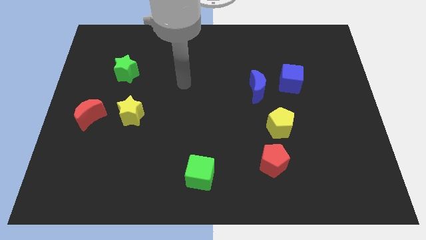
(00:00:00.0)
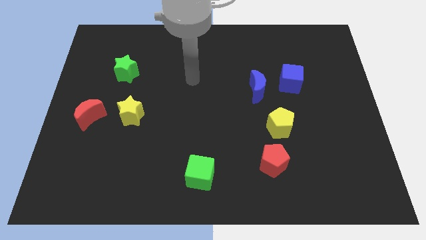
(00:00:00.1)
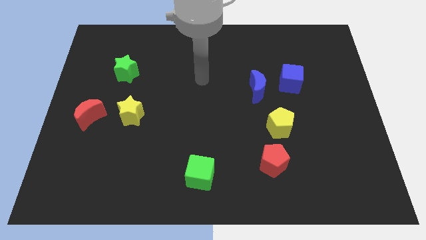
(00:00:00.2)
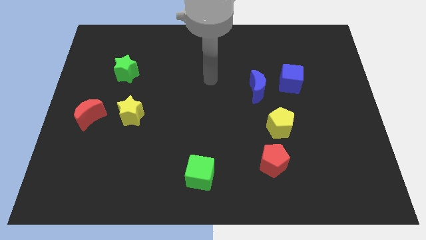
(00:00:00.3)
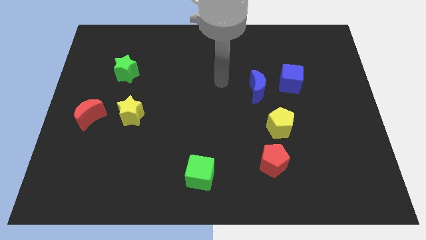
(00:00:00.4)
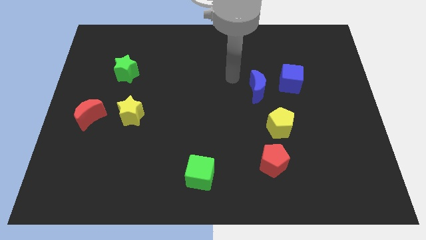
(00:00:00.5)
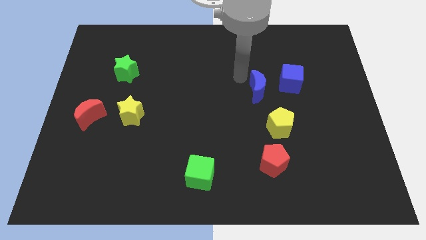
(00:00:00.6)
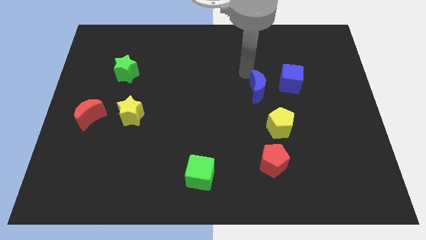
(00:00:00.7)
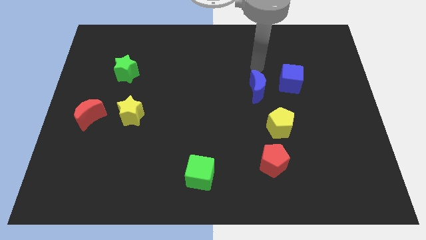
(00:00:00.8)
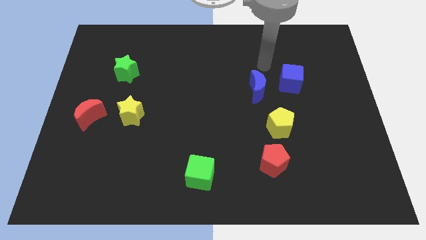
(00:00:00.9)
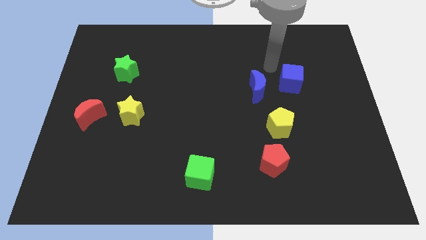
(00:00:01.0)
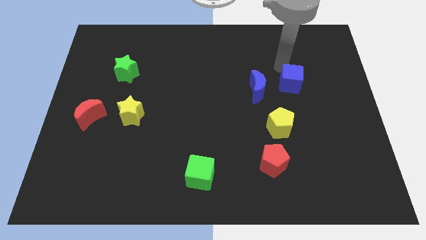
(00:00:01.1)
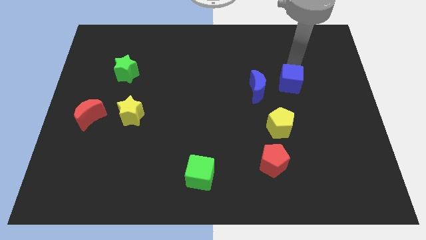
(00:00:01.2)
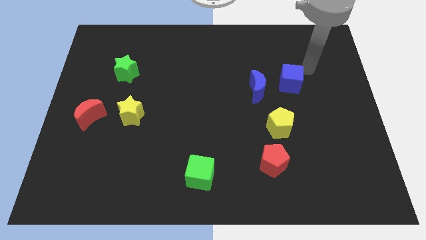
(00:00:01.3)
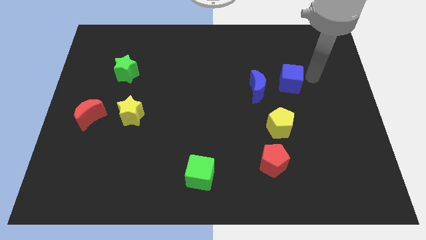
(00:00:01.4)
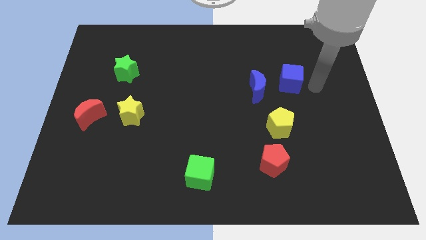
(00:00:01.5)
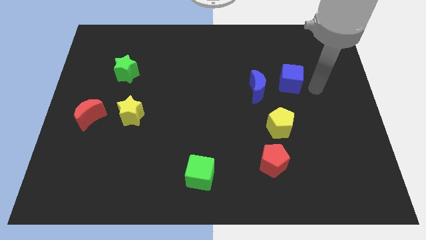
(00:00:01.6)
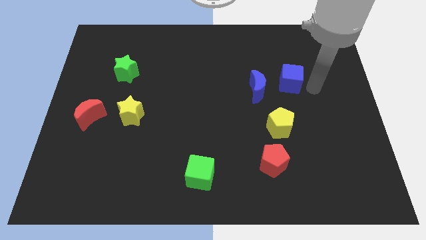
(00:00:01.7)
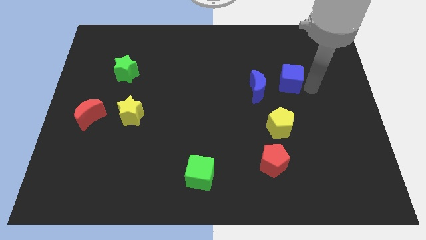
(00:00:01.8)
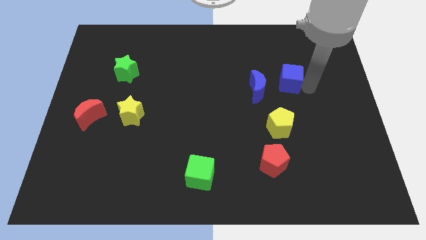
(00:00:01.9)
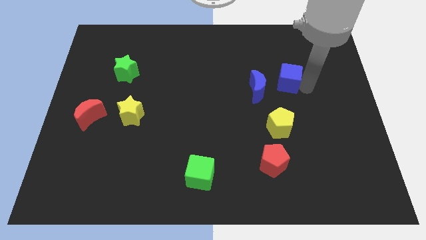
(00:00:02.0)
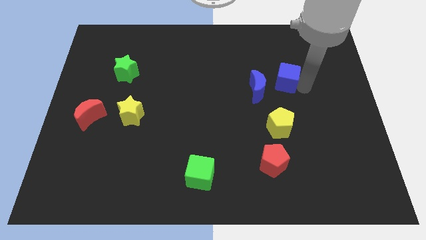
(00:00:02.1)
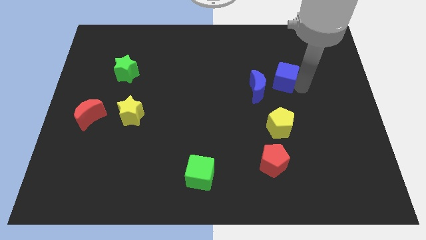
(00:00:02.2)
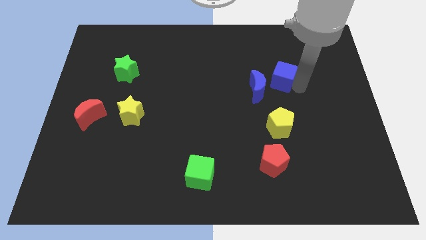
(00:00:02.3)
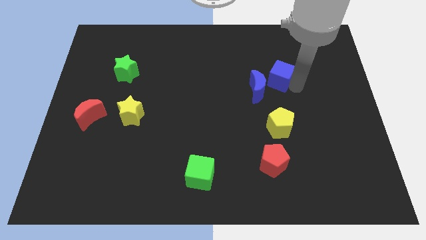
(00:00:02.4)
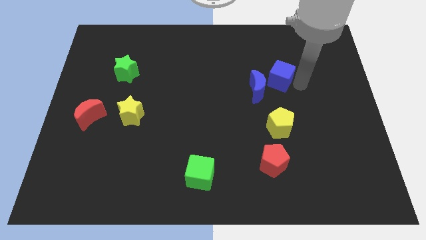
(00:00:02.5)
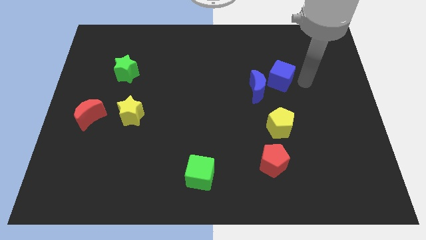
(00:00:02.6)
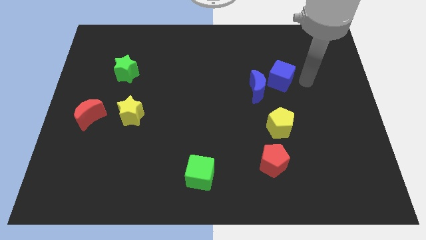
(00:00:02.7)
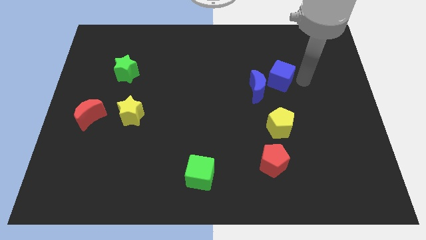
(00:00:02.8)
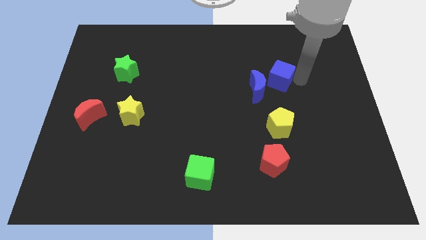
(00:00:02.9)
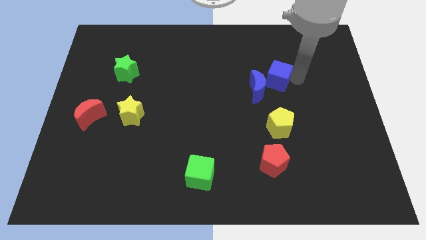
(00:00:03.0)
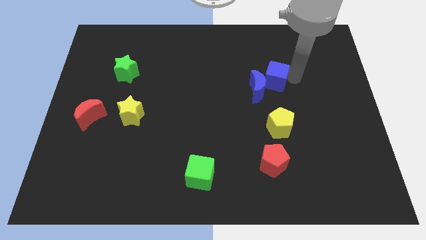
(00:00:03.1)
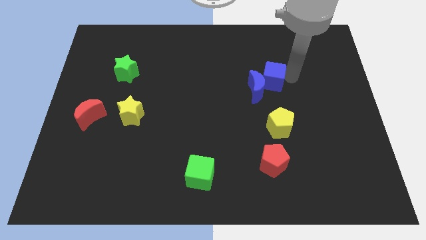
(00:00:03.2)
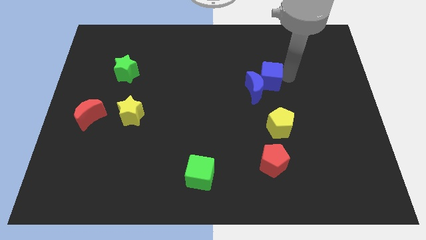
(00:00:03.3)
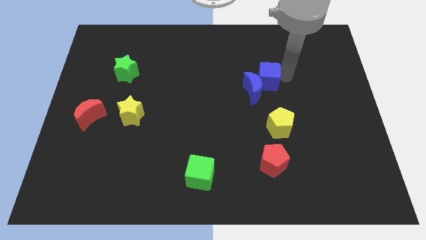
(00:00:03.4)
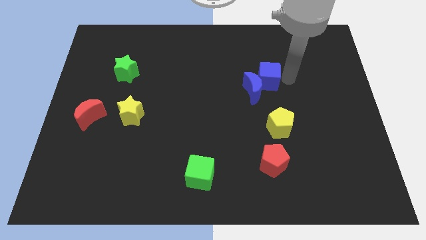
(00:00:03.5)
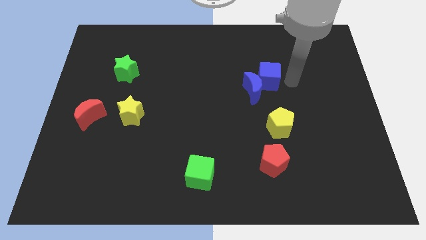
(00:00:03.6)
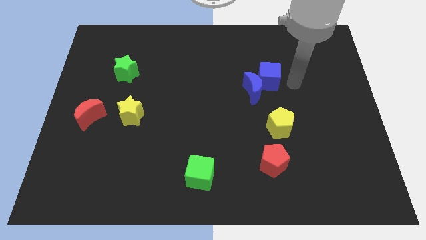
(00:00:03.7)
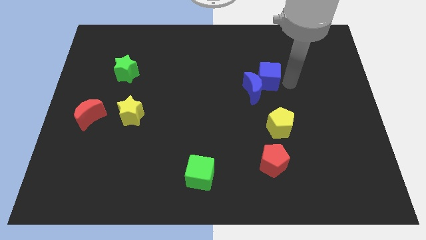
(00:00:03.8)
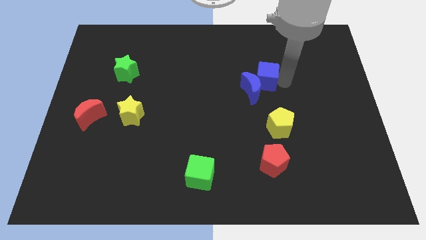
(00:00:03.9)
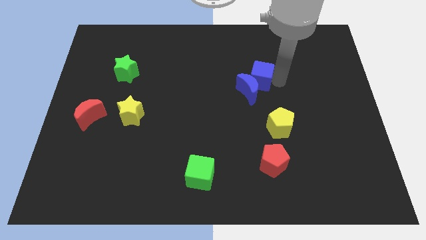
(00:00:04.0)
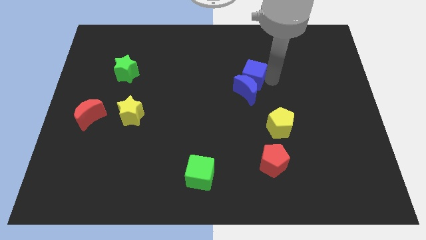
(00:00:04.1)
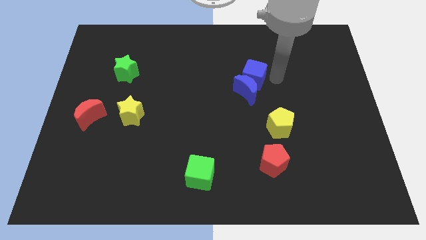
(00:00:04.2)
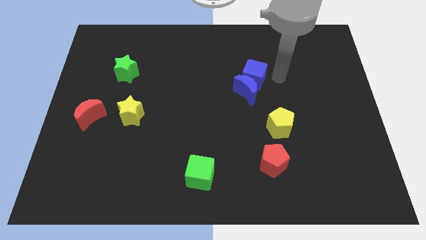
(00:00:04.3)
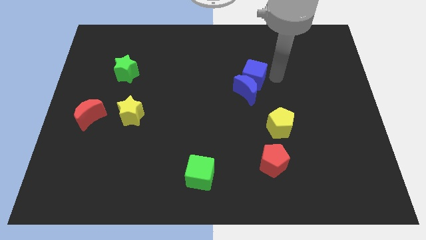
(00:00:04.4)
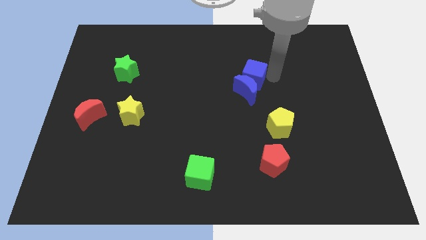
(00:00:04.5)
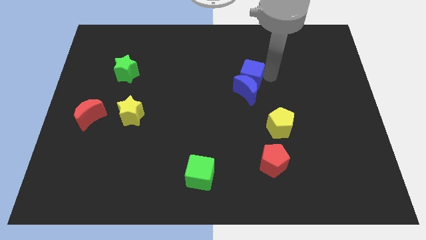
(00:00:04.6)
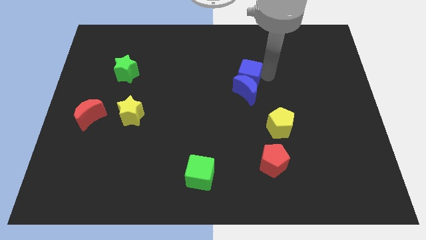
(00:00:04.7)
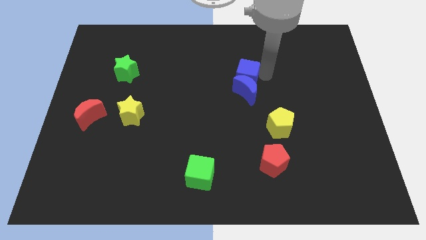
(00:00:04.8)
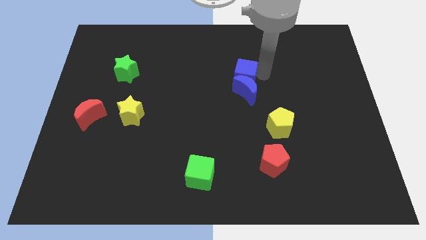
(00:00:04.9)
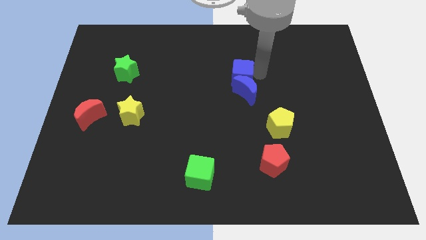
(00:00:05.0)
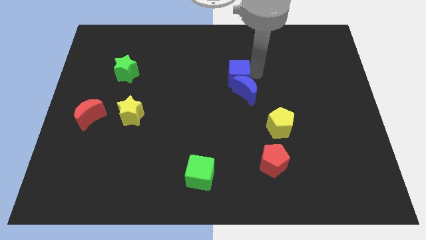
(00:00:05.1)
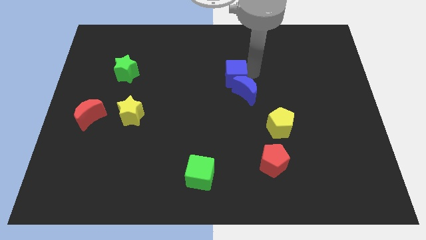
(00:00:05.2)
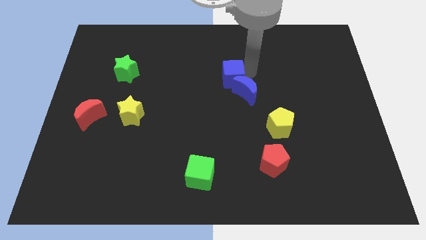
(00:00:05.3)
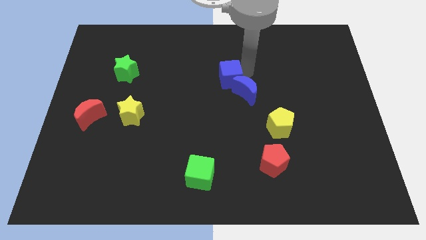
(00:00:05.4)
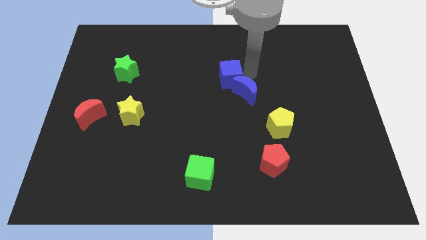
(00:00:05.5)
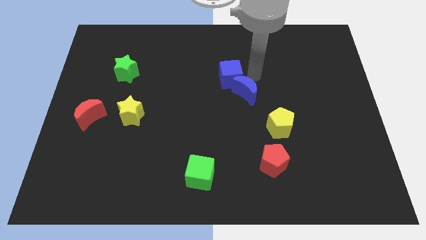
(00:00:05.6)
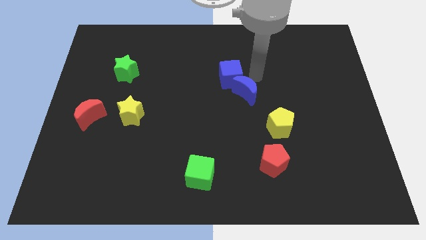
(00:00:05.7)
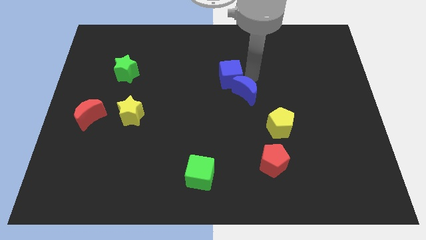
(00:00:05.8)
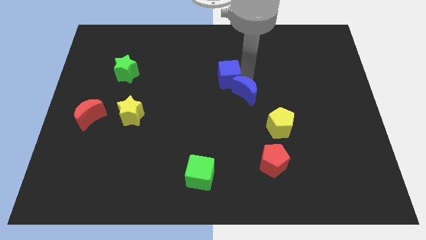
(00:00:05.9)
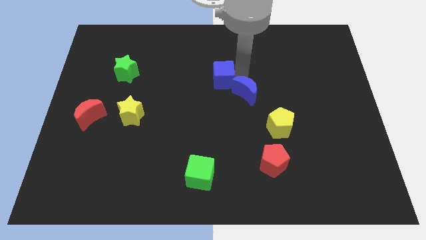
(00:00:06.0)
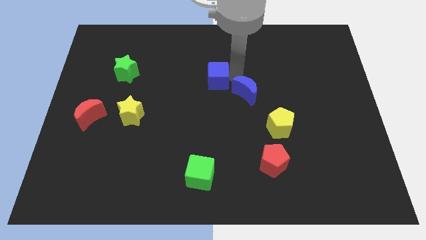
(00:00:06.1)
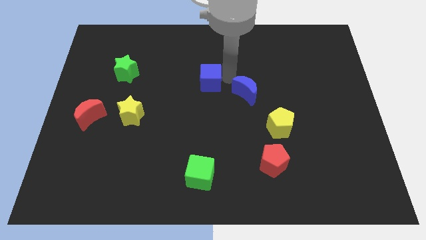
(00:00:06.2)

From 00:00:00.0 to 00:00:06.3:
slide the blue cube to the left

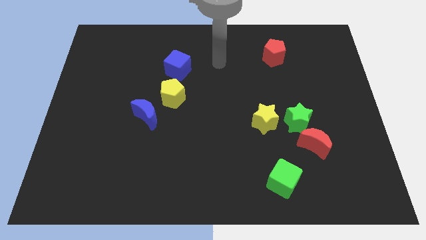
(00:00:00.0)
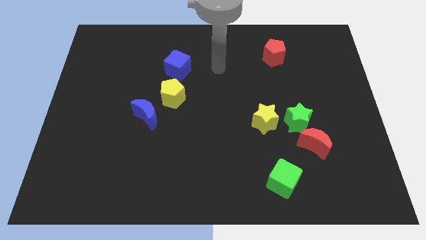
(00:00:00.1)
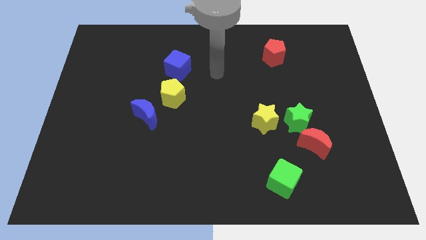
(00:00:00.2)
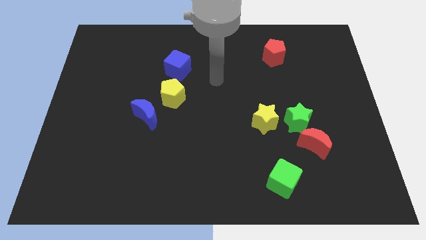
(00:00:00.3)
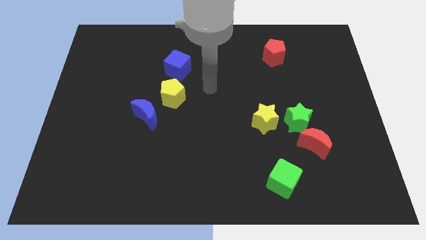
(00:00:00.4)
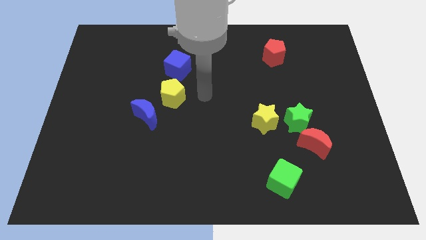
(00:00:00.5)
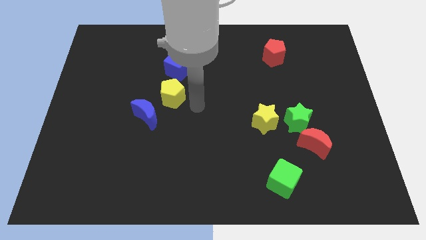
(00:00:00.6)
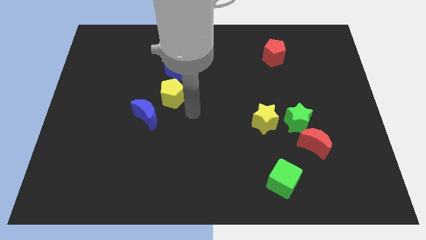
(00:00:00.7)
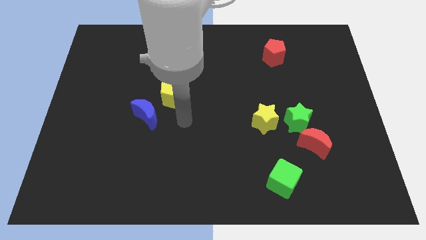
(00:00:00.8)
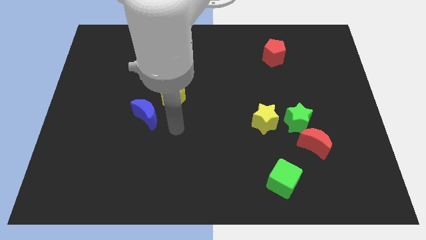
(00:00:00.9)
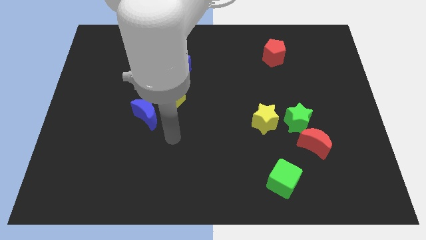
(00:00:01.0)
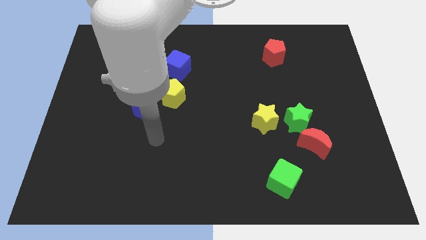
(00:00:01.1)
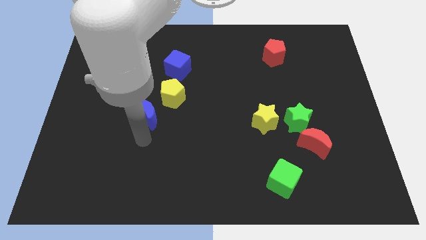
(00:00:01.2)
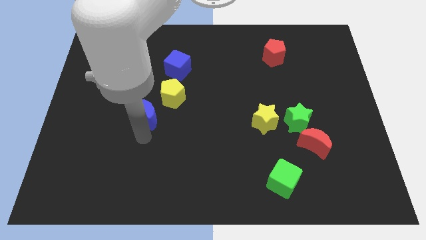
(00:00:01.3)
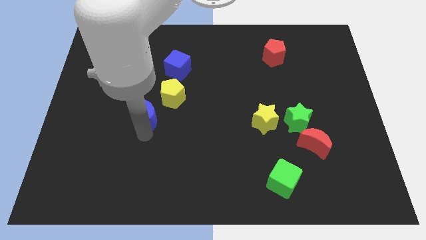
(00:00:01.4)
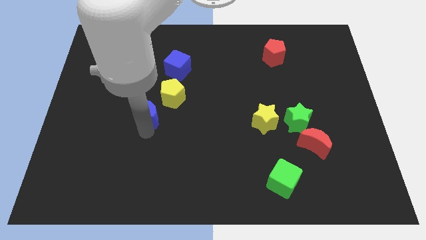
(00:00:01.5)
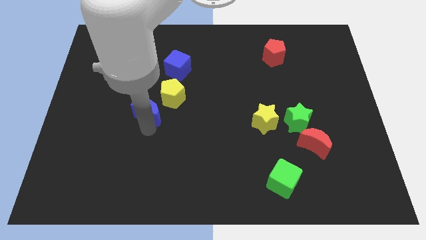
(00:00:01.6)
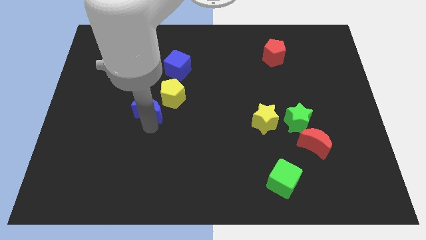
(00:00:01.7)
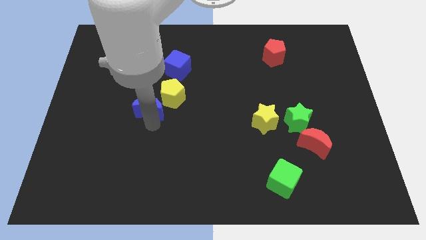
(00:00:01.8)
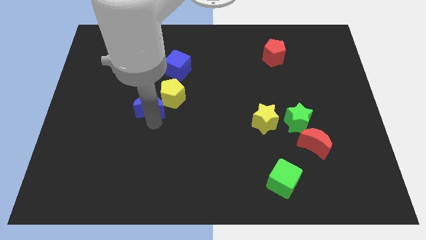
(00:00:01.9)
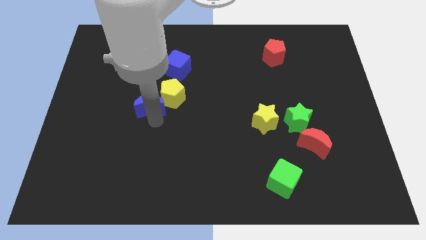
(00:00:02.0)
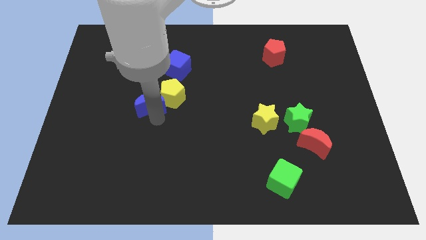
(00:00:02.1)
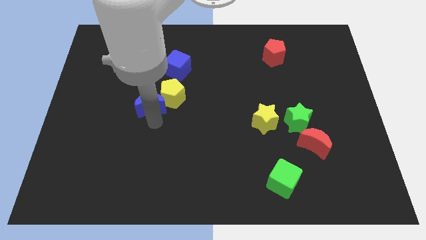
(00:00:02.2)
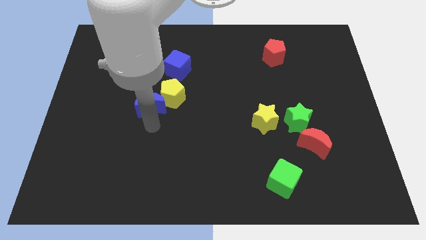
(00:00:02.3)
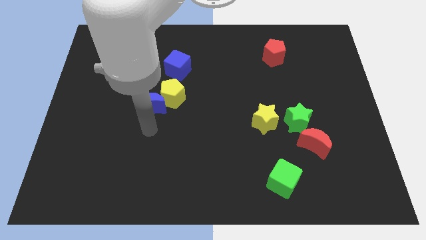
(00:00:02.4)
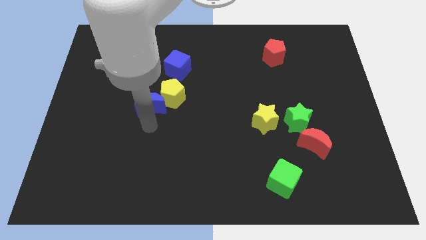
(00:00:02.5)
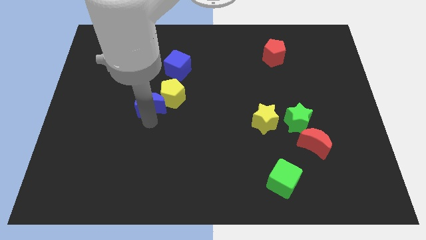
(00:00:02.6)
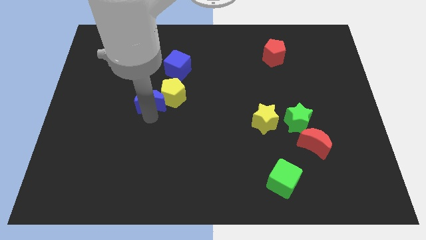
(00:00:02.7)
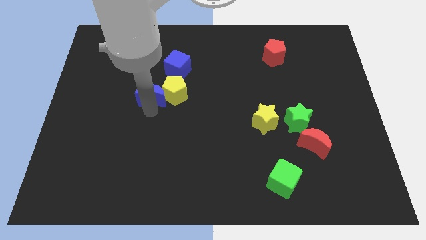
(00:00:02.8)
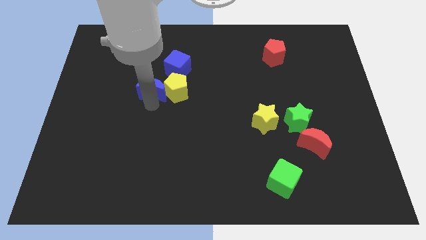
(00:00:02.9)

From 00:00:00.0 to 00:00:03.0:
slightly slide the blue moon up
